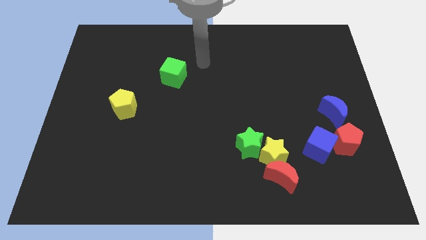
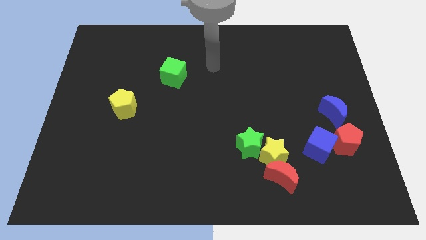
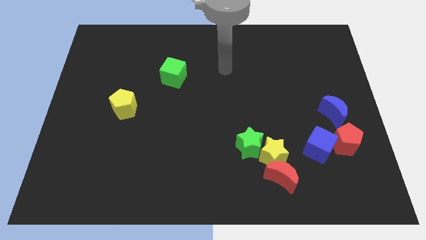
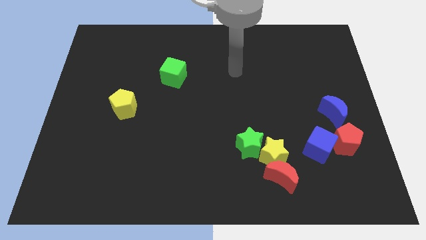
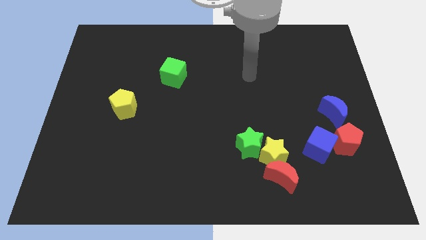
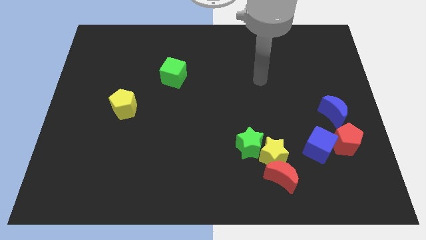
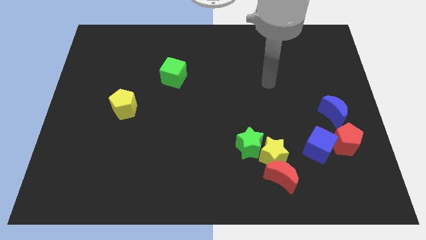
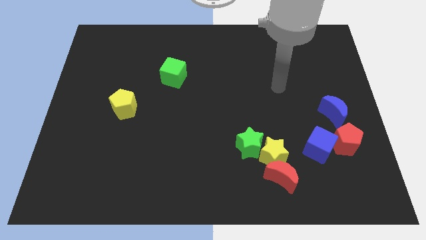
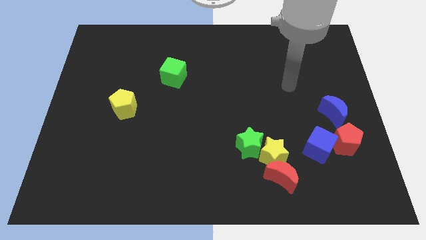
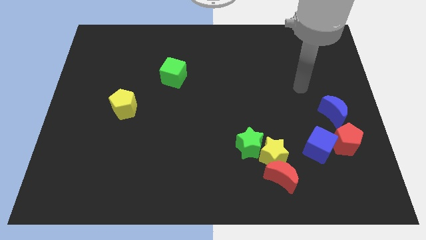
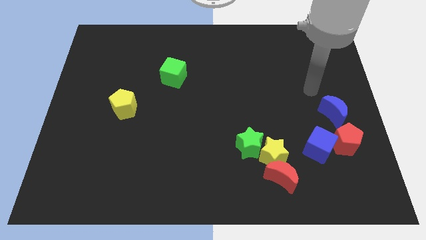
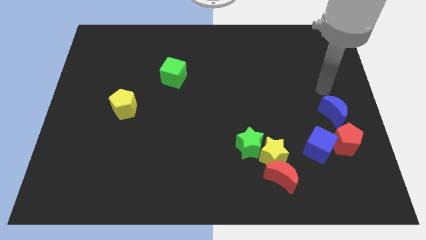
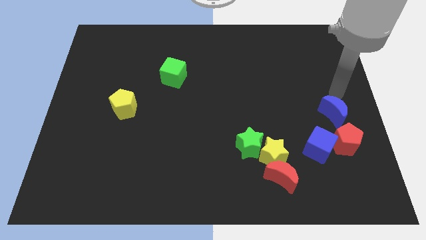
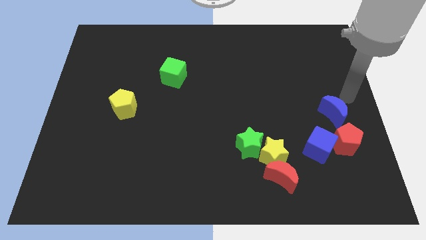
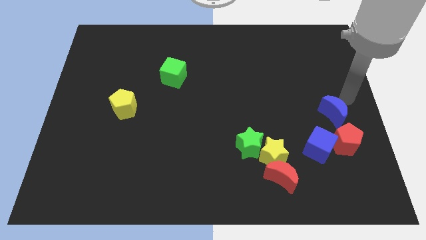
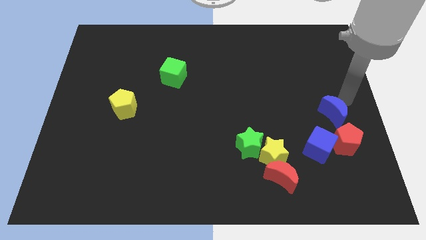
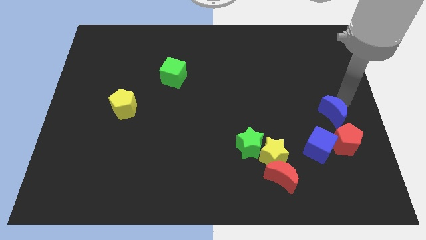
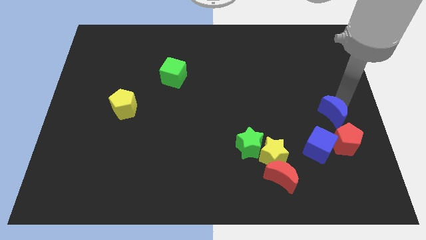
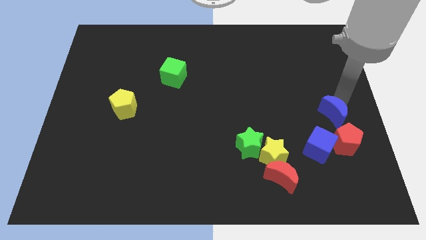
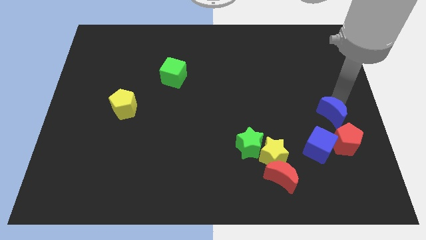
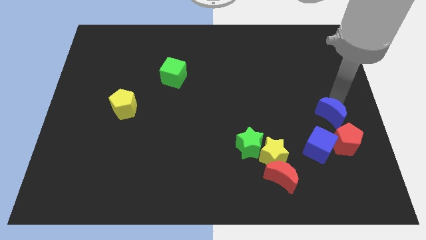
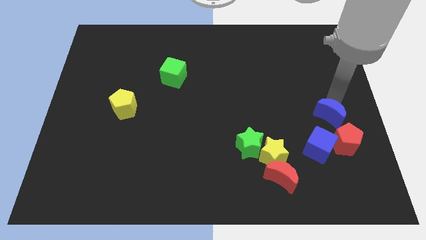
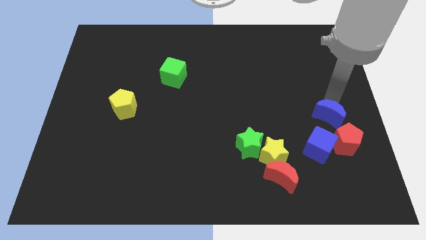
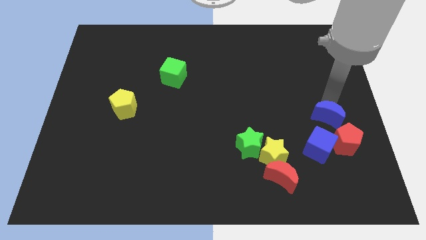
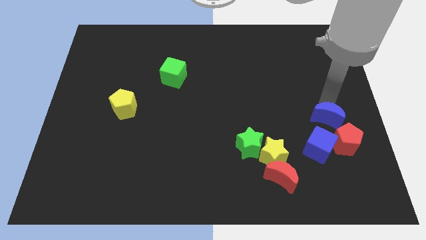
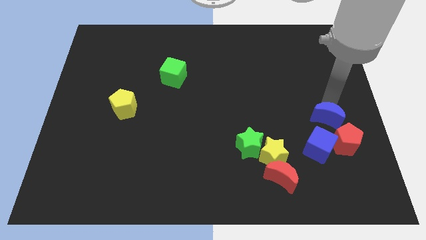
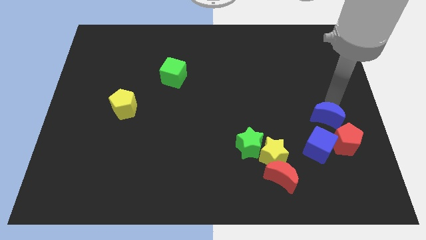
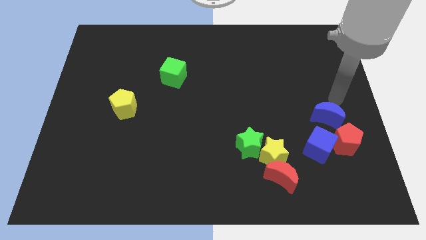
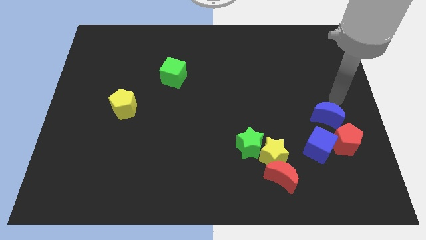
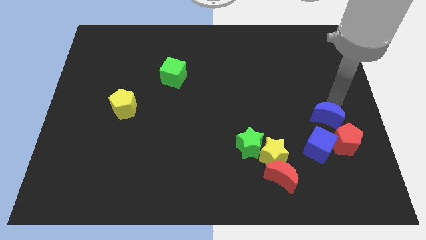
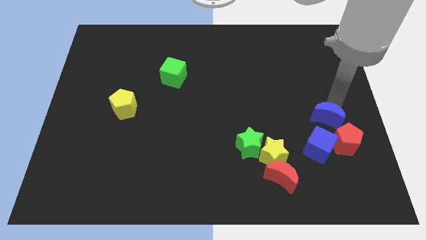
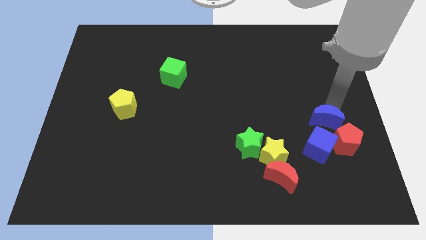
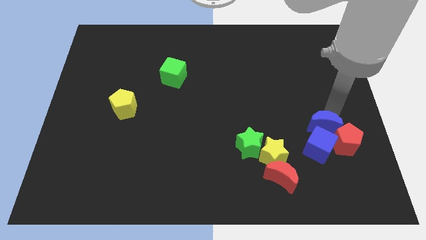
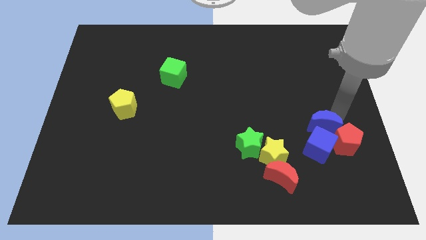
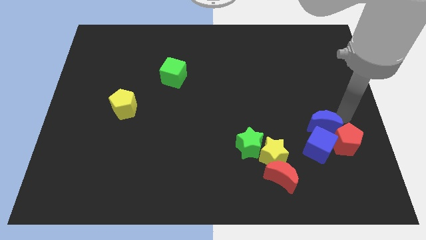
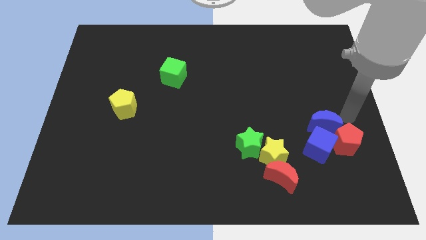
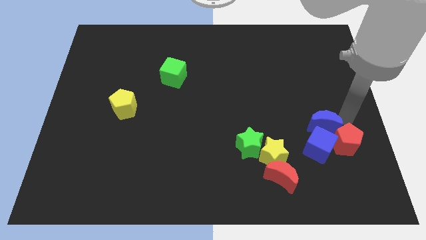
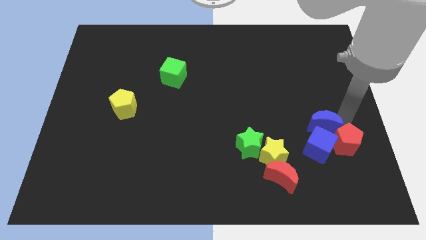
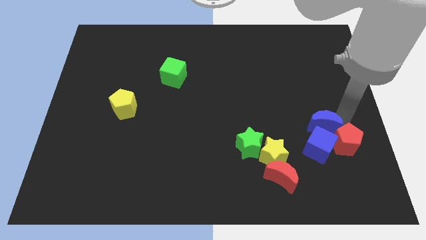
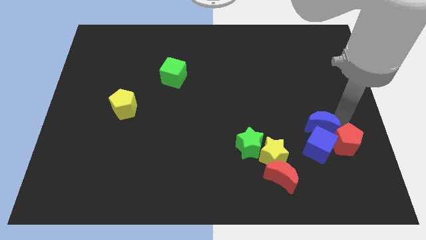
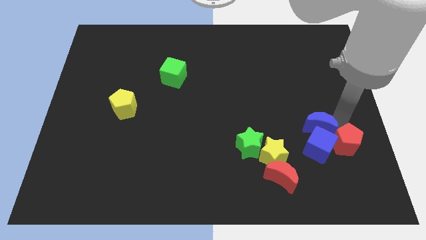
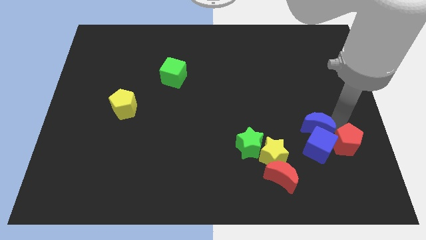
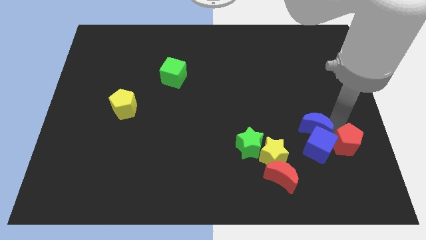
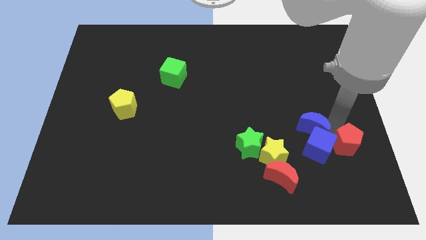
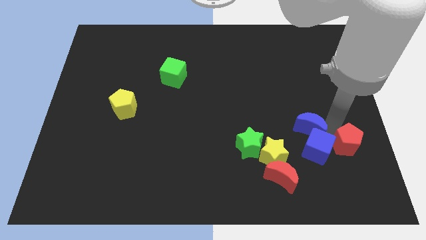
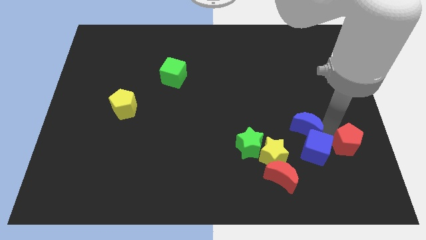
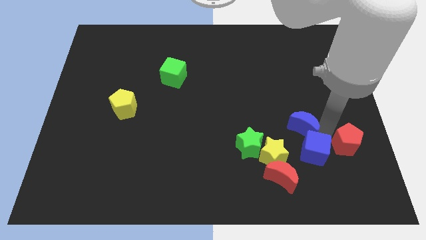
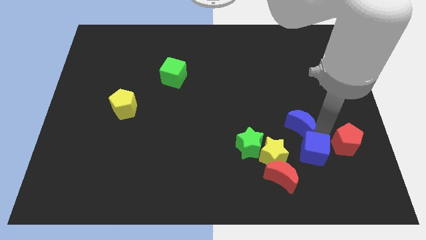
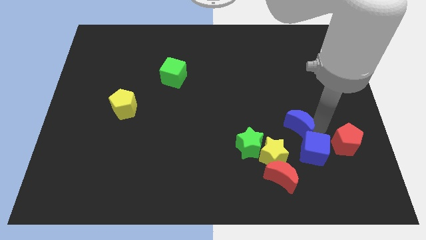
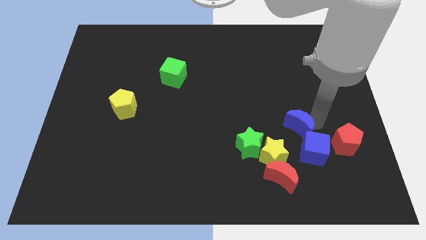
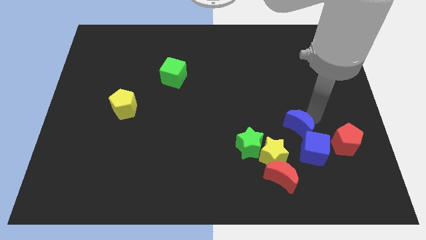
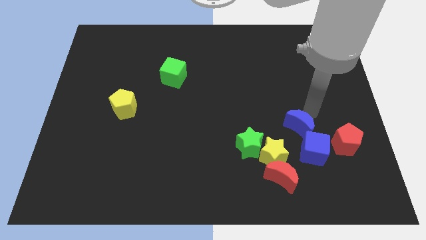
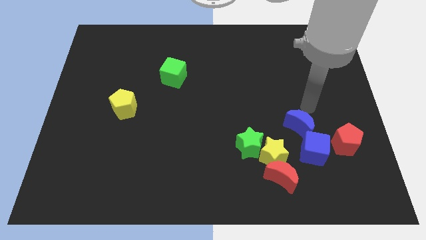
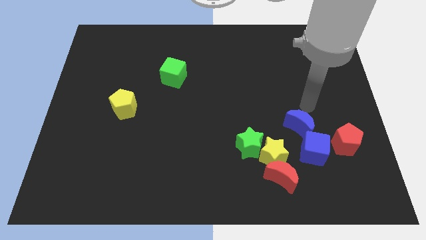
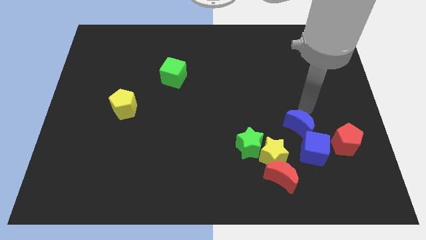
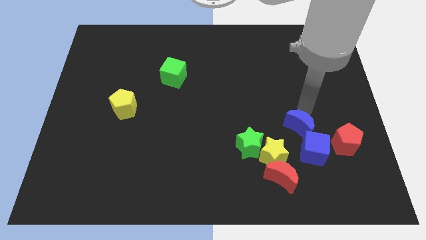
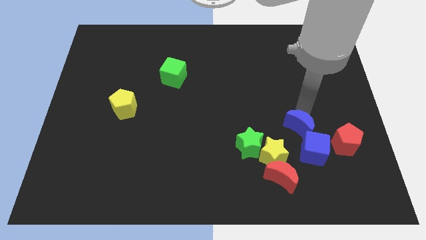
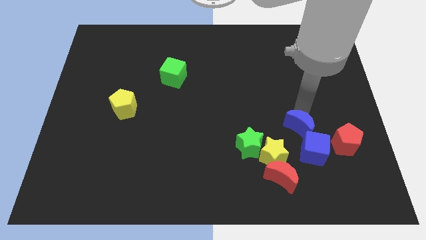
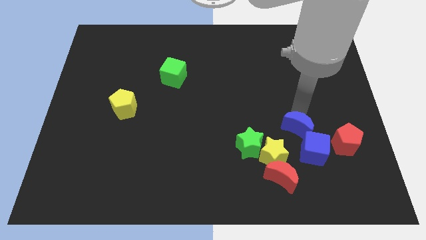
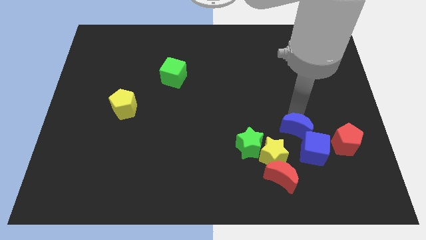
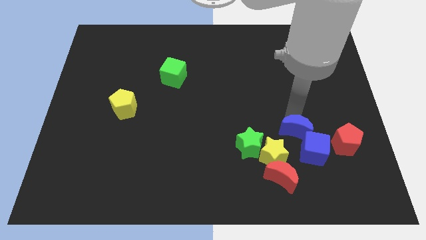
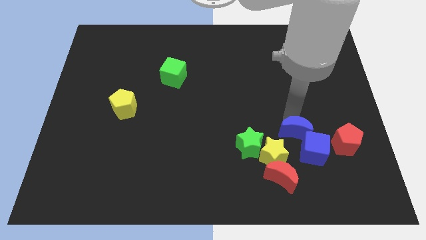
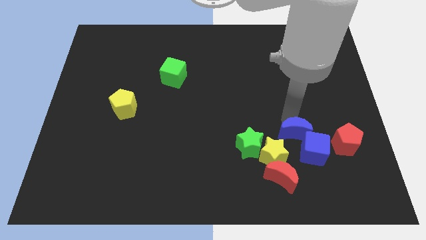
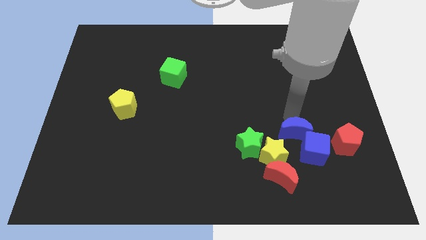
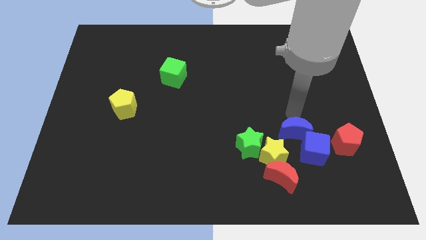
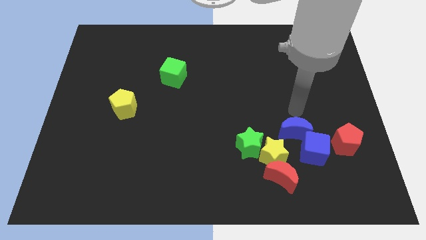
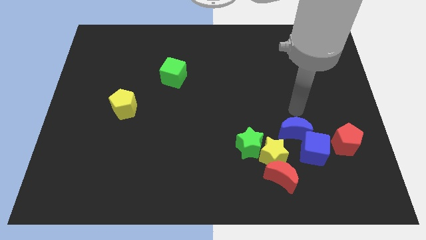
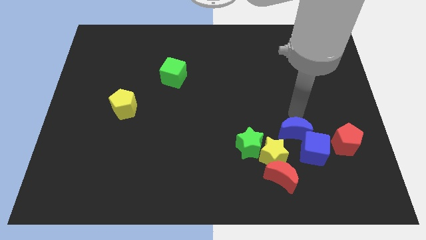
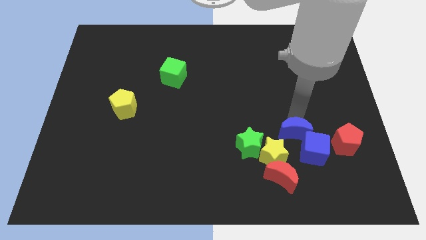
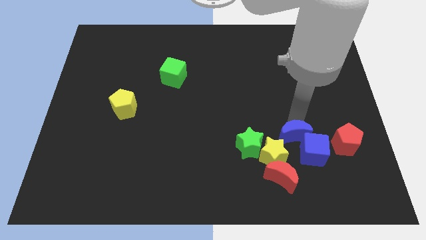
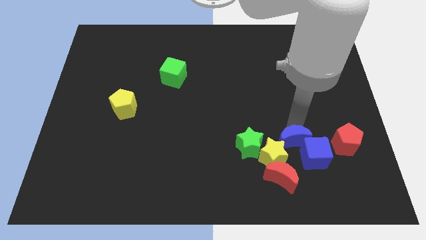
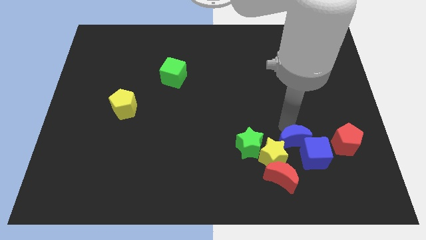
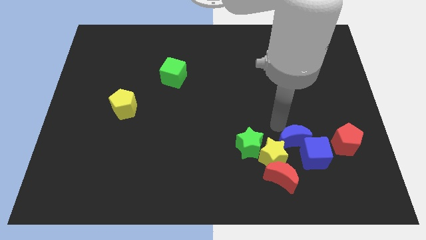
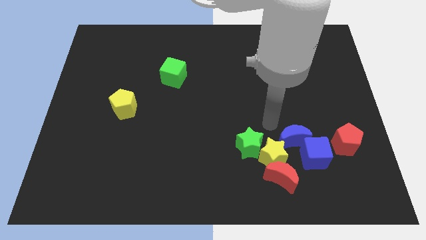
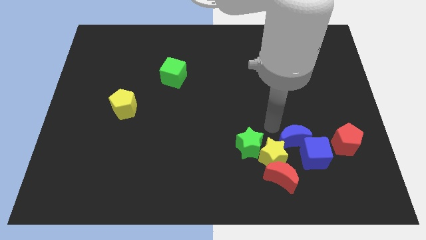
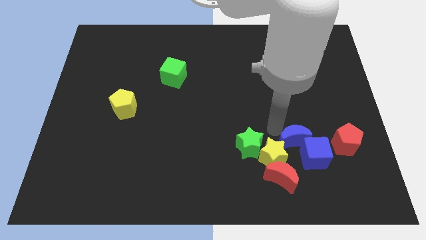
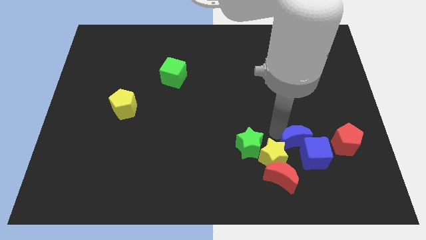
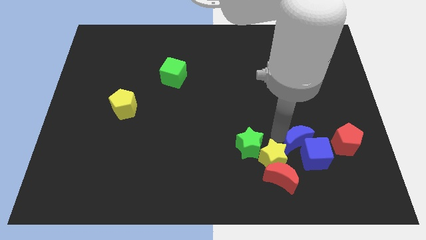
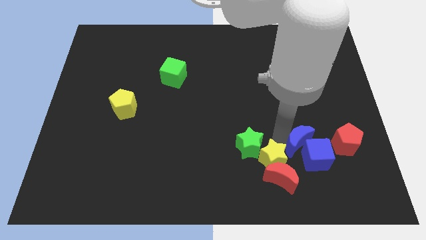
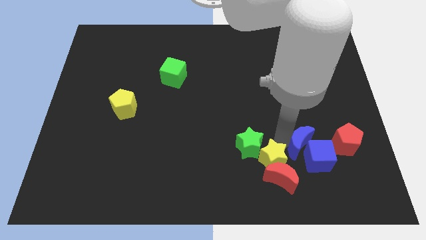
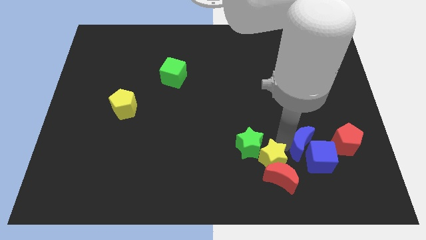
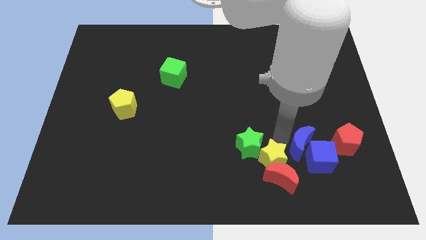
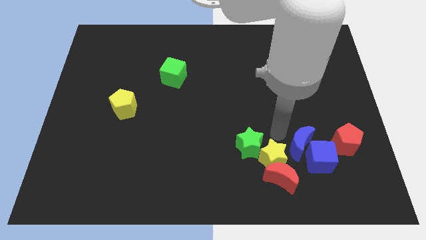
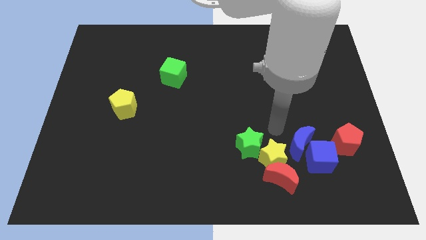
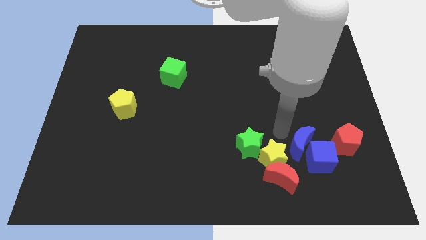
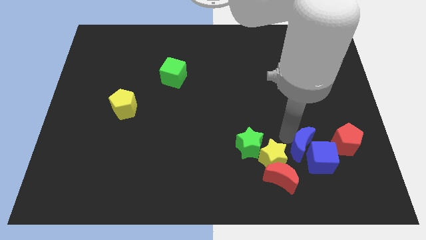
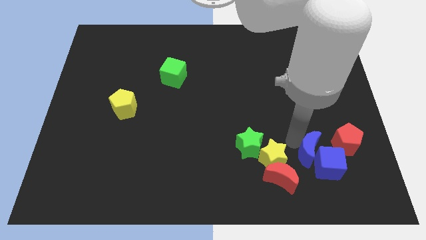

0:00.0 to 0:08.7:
move the blue moon diagonally down and to the left of the red pentagon
